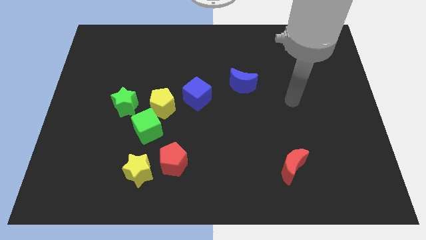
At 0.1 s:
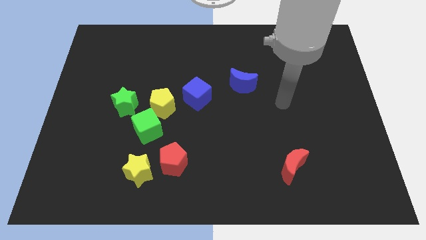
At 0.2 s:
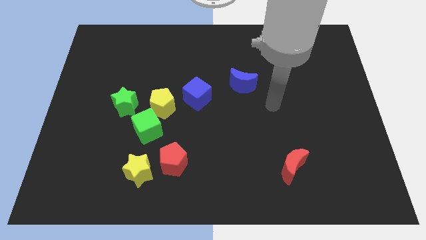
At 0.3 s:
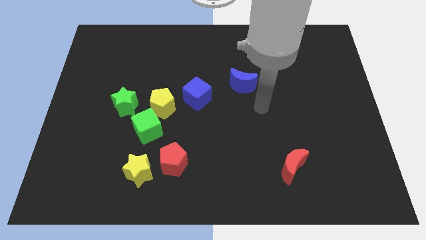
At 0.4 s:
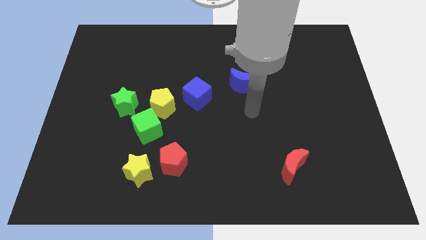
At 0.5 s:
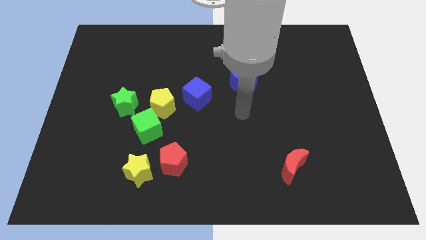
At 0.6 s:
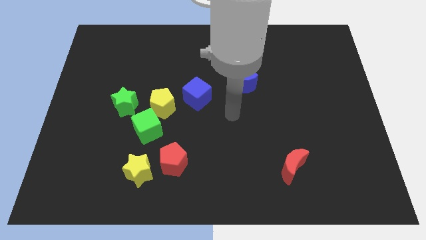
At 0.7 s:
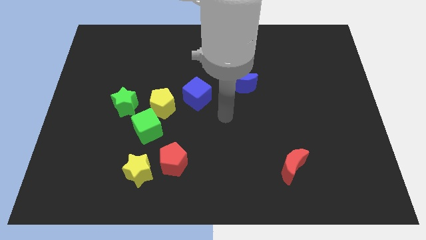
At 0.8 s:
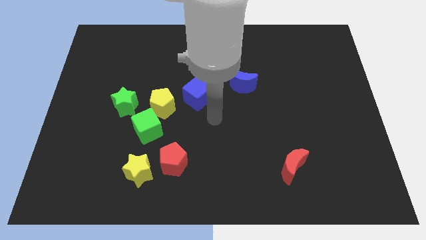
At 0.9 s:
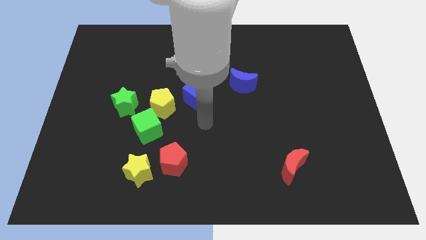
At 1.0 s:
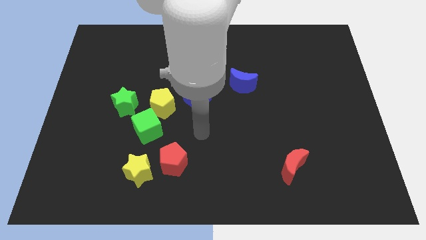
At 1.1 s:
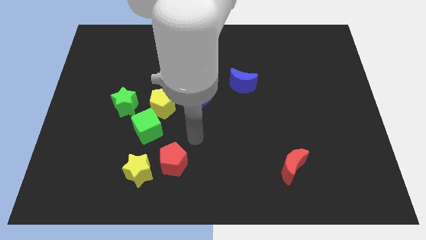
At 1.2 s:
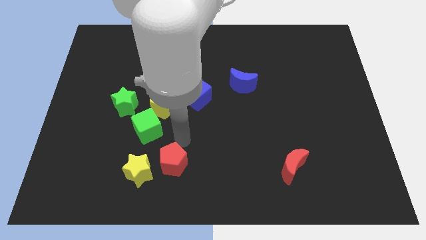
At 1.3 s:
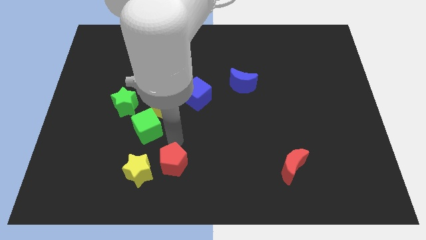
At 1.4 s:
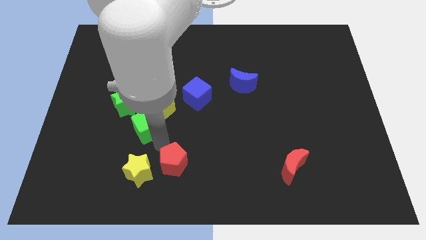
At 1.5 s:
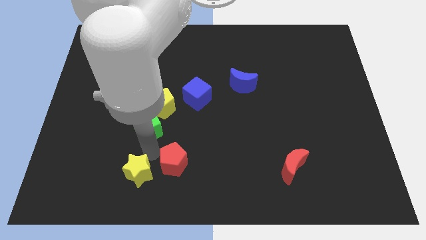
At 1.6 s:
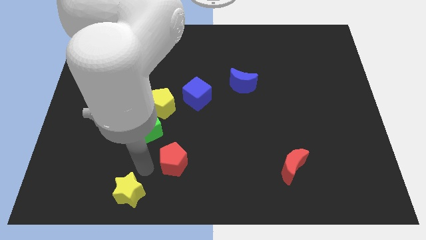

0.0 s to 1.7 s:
move the red pentagon away from the yellow star

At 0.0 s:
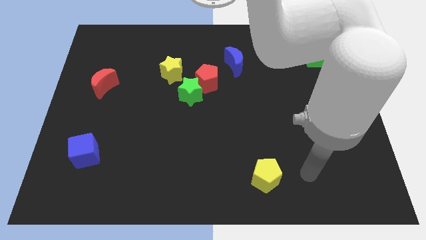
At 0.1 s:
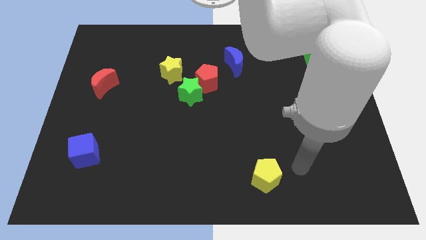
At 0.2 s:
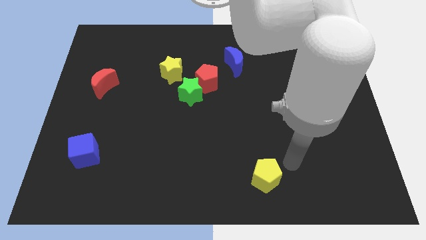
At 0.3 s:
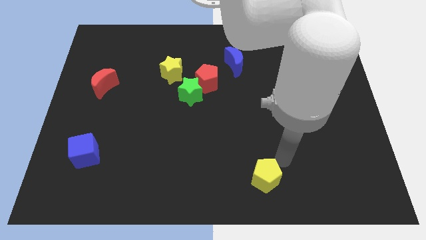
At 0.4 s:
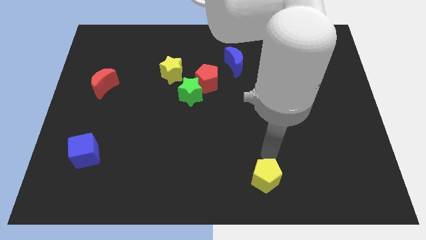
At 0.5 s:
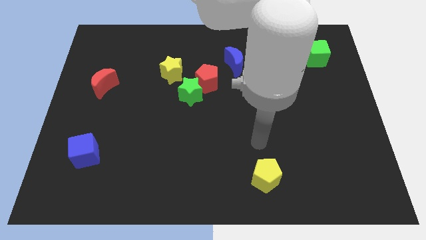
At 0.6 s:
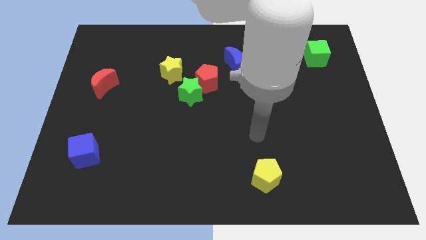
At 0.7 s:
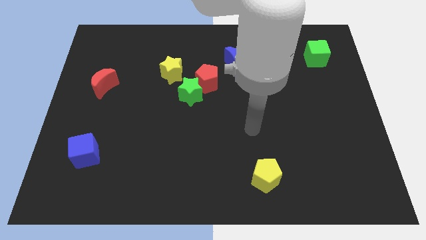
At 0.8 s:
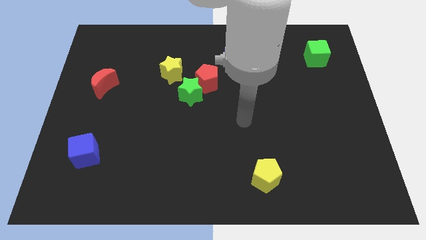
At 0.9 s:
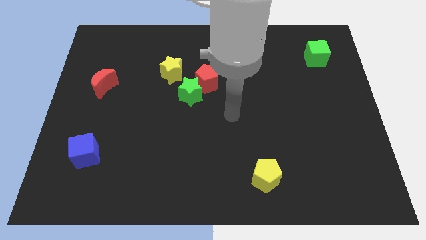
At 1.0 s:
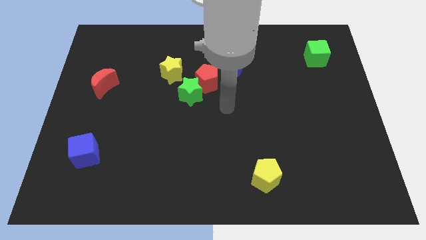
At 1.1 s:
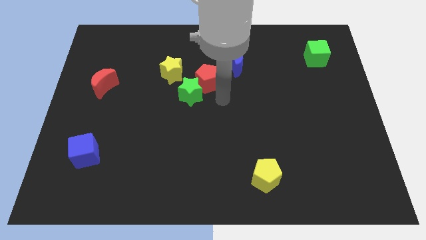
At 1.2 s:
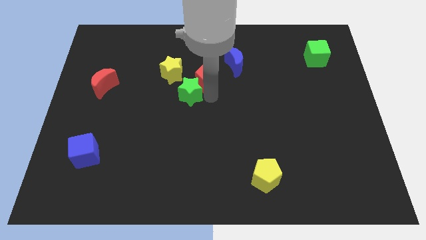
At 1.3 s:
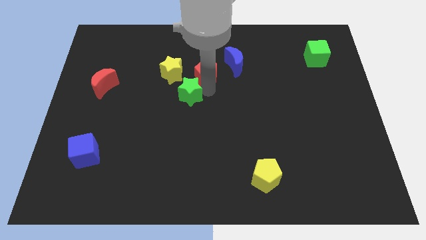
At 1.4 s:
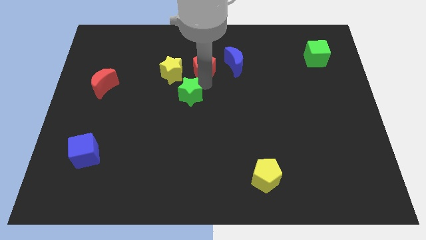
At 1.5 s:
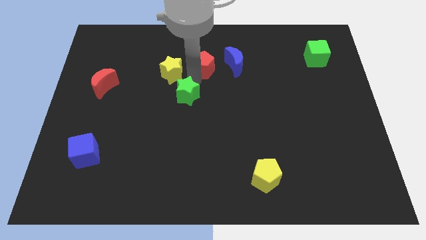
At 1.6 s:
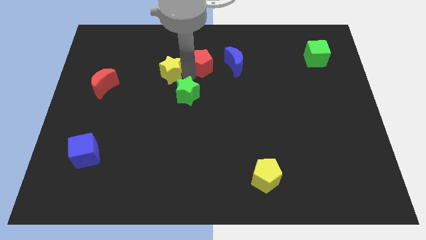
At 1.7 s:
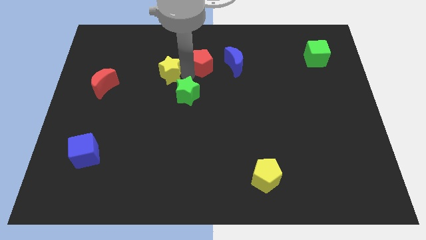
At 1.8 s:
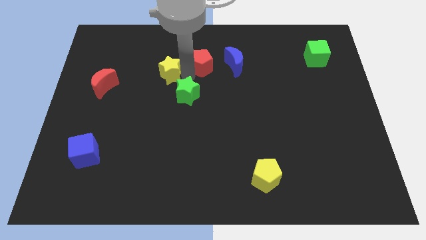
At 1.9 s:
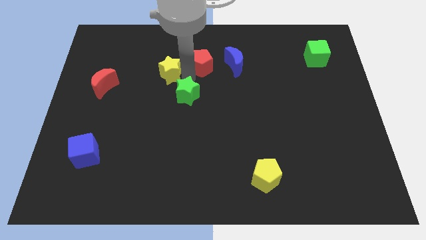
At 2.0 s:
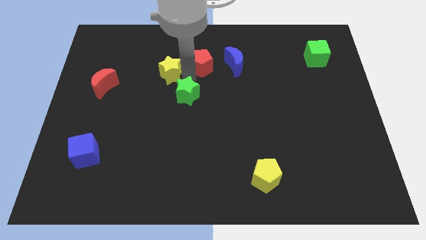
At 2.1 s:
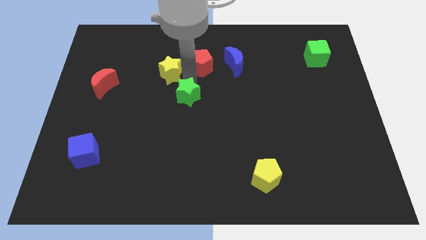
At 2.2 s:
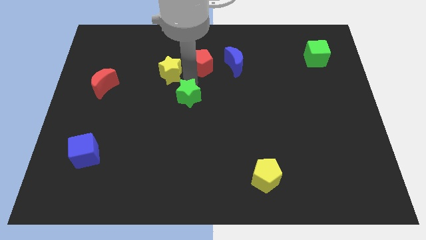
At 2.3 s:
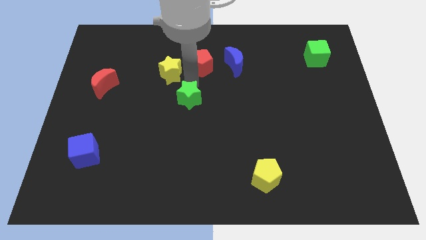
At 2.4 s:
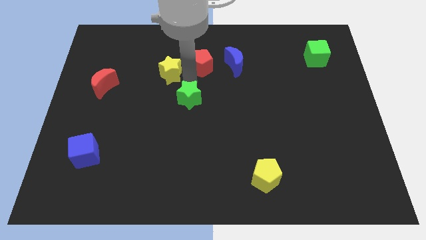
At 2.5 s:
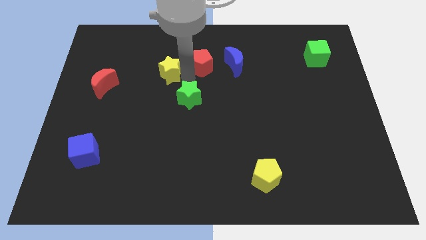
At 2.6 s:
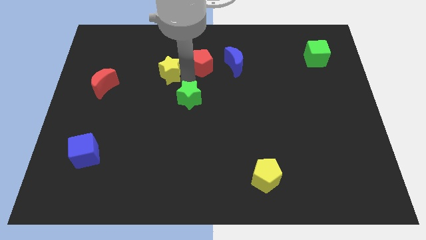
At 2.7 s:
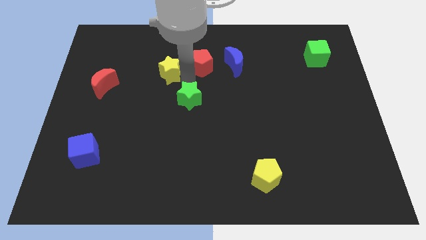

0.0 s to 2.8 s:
separate the green star from the red pentagon and yellow star

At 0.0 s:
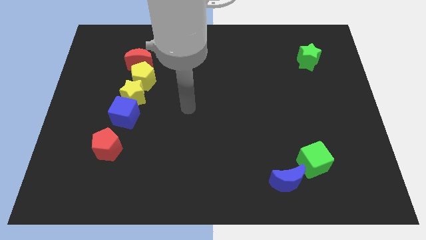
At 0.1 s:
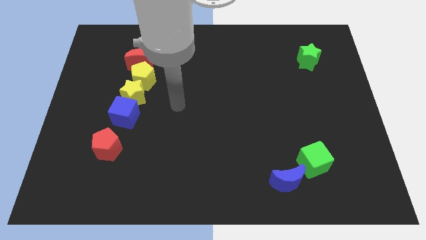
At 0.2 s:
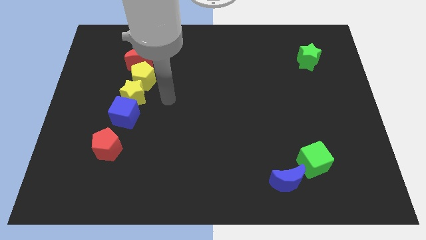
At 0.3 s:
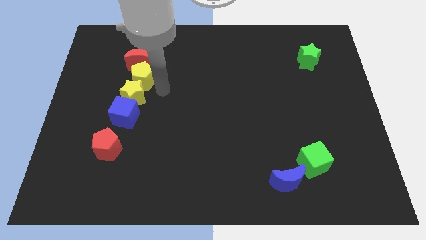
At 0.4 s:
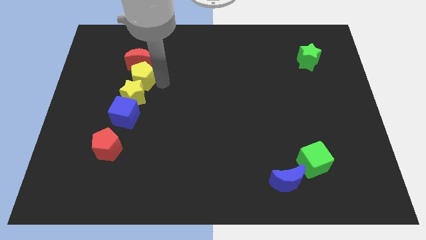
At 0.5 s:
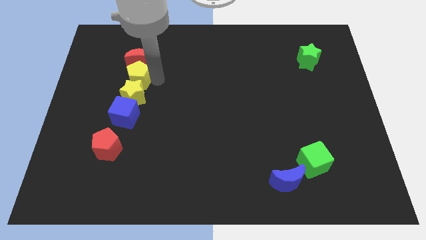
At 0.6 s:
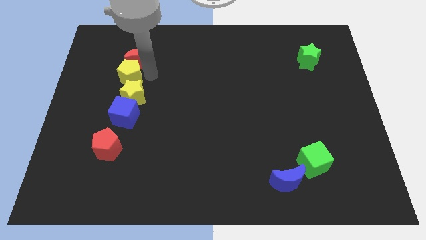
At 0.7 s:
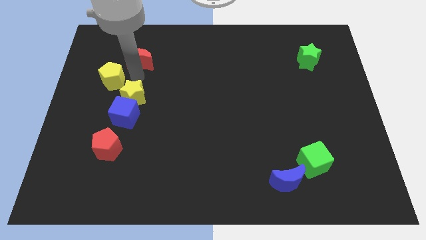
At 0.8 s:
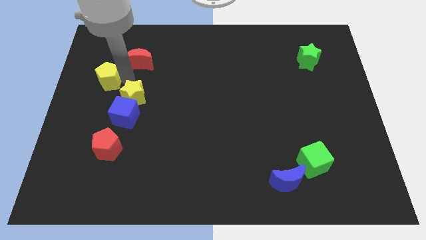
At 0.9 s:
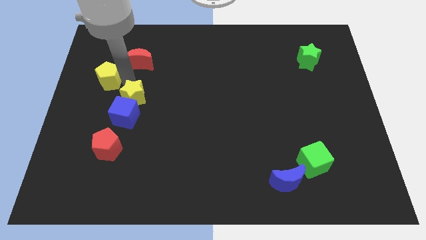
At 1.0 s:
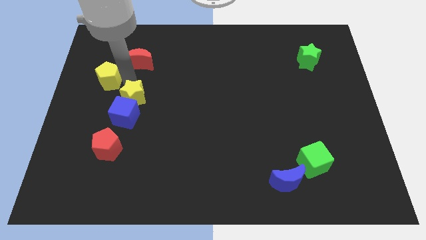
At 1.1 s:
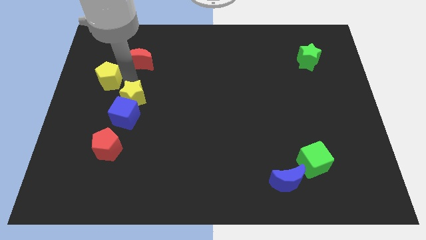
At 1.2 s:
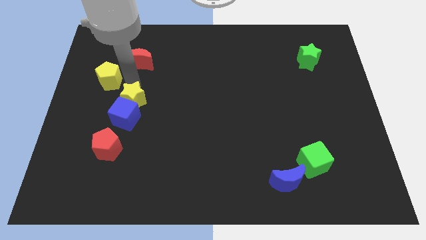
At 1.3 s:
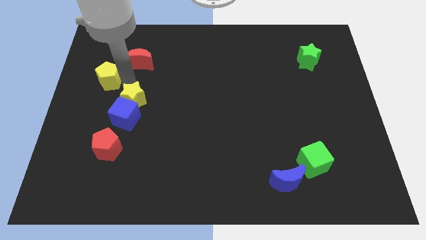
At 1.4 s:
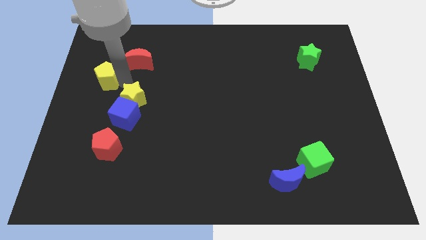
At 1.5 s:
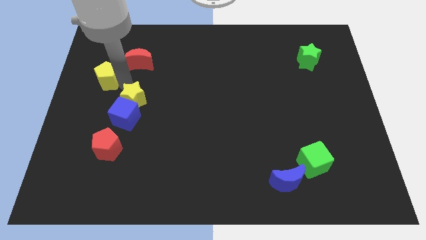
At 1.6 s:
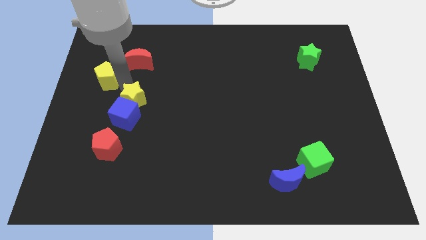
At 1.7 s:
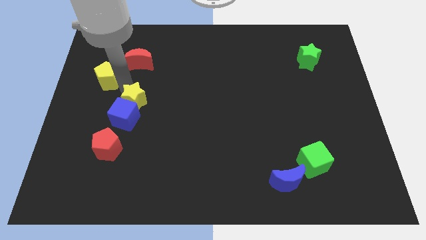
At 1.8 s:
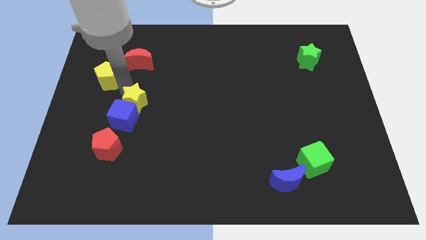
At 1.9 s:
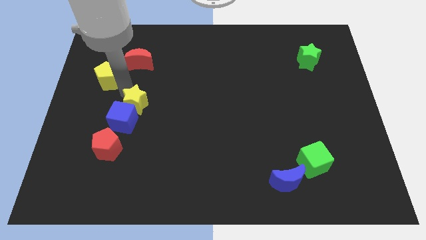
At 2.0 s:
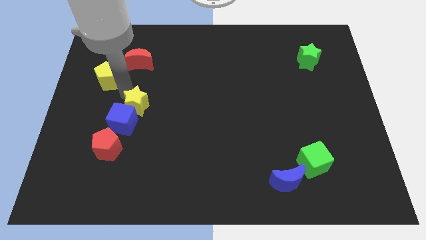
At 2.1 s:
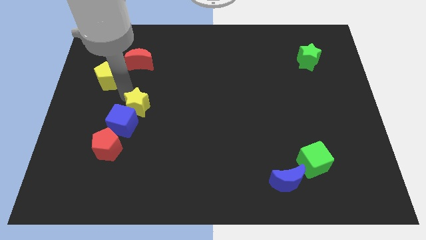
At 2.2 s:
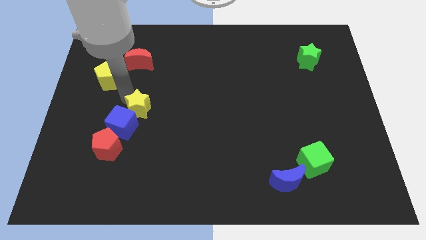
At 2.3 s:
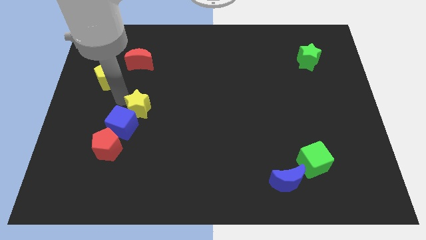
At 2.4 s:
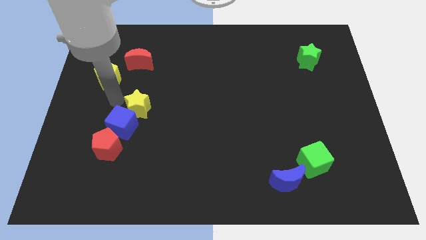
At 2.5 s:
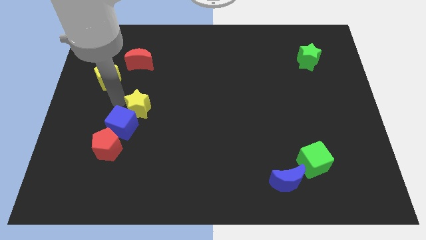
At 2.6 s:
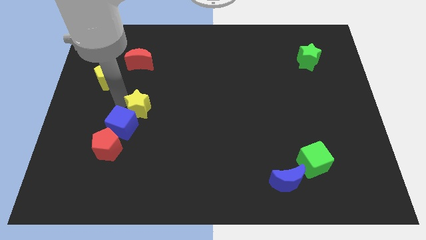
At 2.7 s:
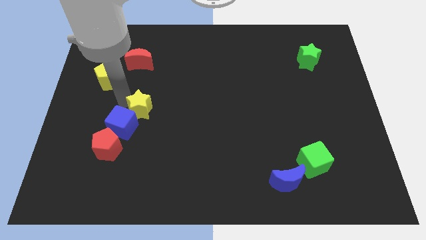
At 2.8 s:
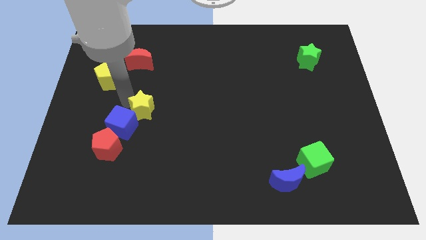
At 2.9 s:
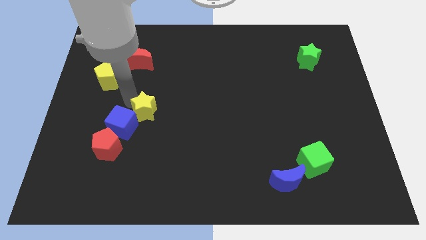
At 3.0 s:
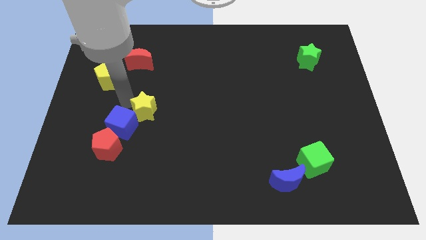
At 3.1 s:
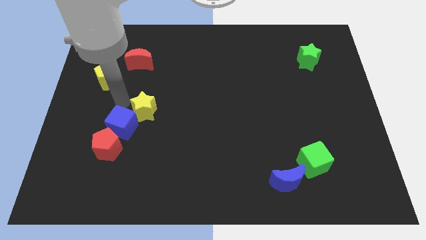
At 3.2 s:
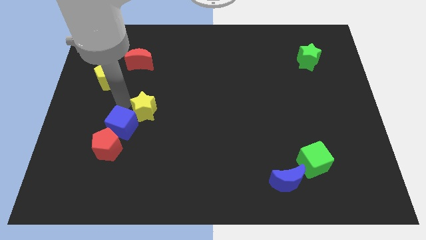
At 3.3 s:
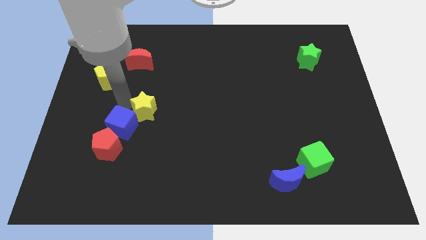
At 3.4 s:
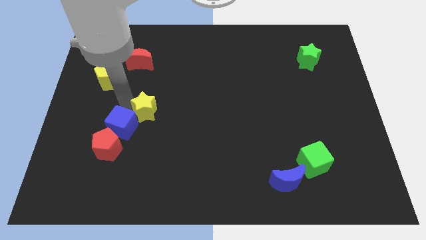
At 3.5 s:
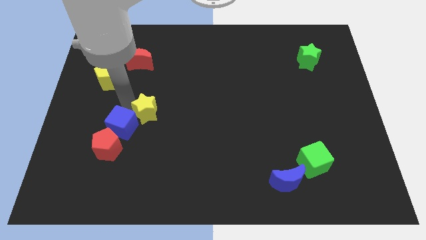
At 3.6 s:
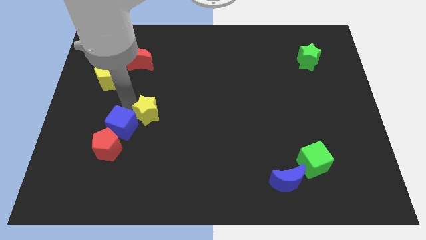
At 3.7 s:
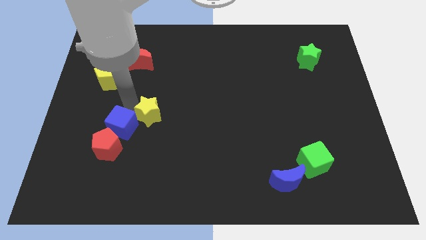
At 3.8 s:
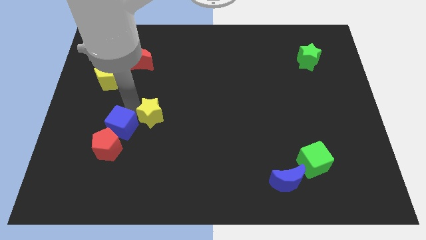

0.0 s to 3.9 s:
pull the yellow star apart from the blue cube and yellow pentagon

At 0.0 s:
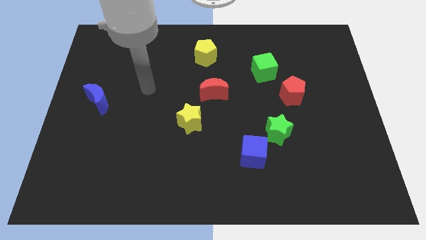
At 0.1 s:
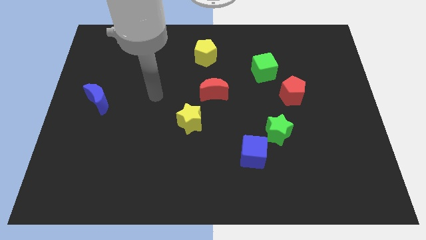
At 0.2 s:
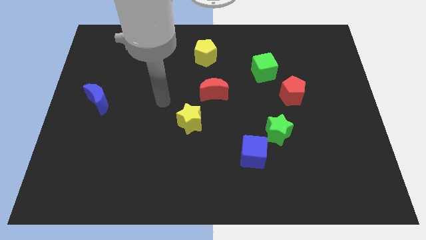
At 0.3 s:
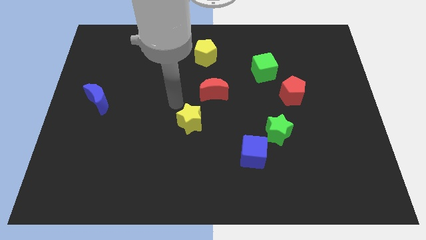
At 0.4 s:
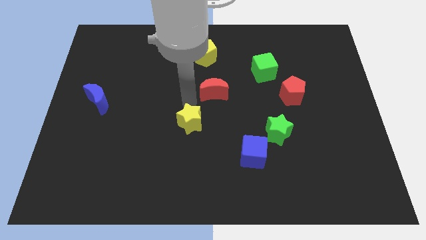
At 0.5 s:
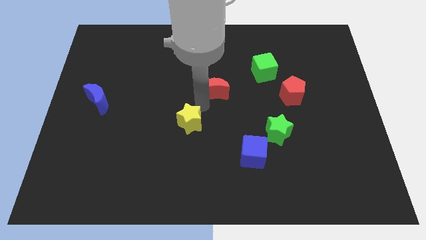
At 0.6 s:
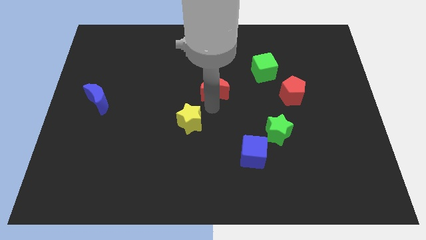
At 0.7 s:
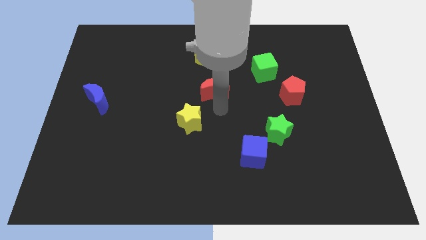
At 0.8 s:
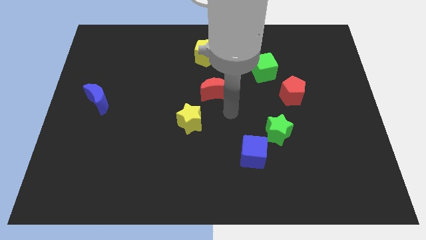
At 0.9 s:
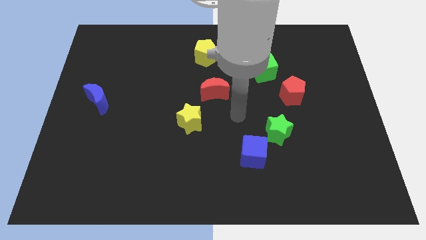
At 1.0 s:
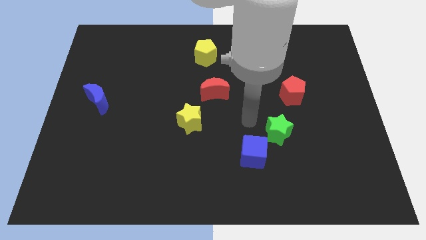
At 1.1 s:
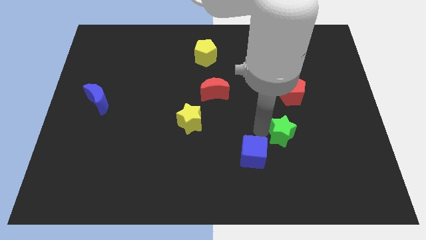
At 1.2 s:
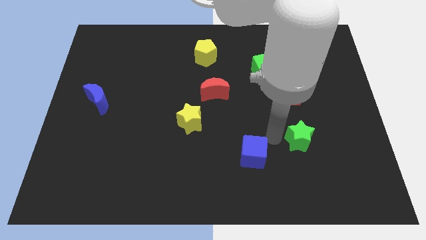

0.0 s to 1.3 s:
separate the blue cube from the green star
